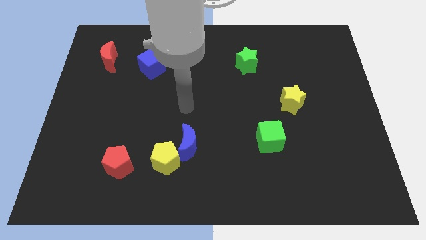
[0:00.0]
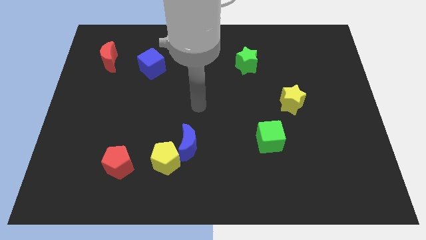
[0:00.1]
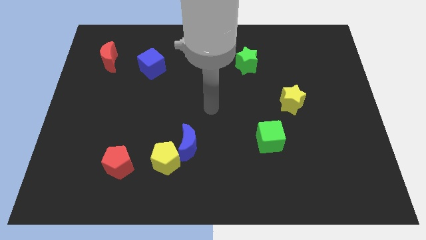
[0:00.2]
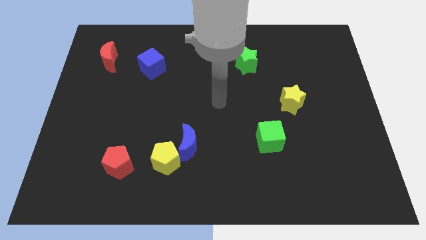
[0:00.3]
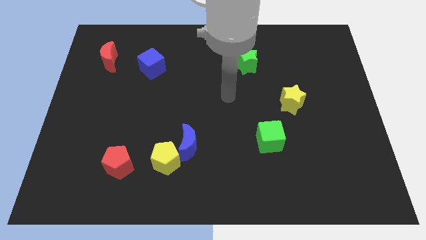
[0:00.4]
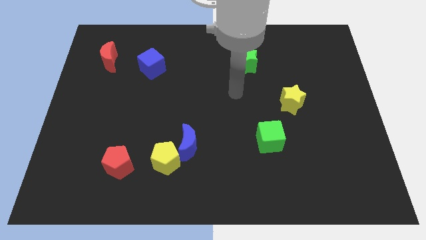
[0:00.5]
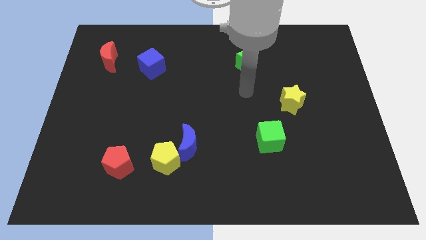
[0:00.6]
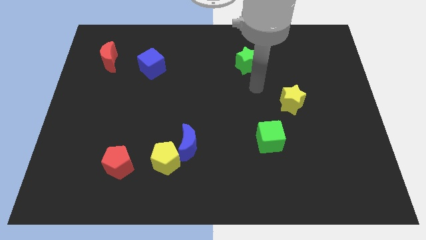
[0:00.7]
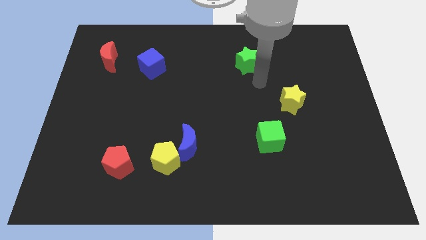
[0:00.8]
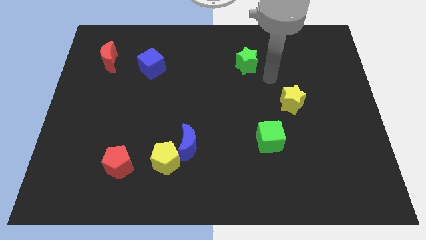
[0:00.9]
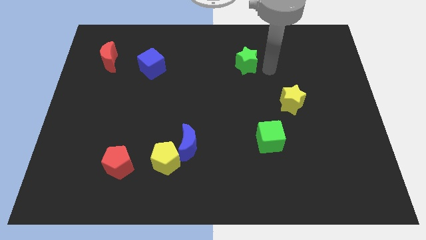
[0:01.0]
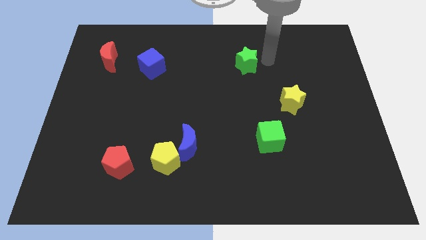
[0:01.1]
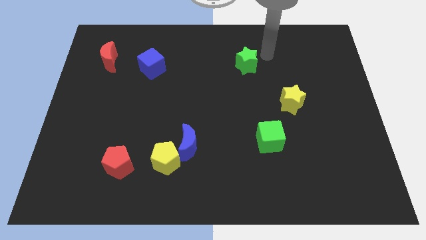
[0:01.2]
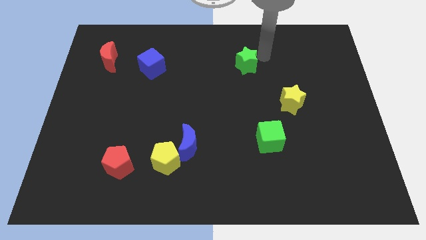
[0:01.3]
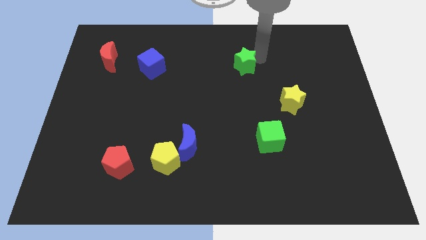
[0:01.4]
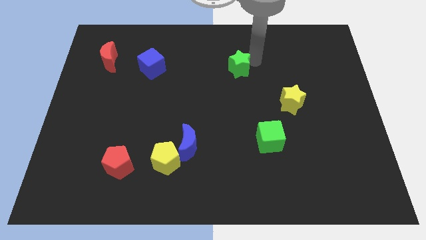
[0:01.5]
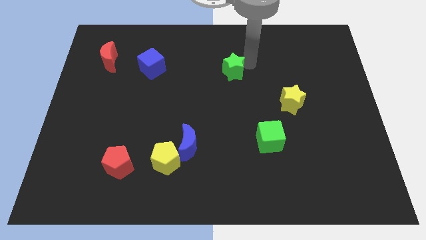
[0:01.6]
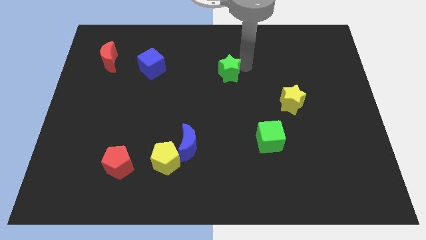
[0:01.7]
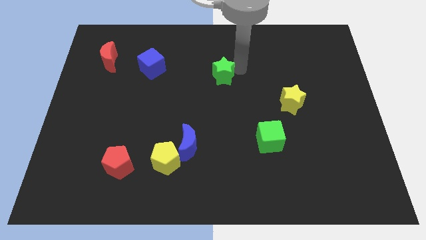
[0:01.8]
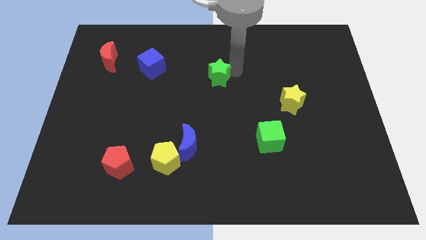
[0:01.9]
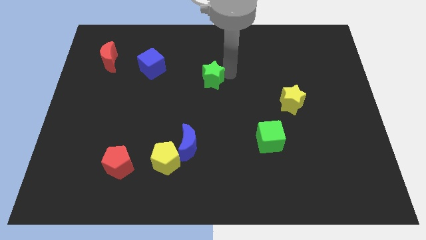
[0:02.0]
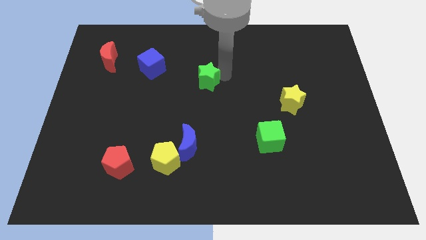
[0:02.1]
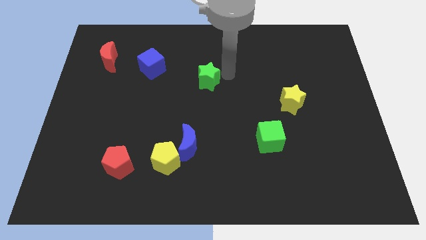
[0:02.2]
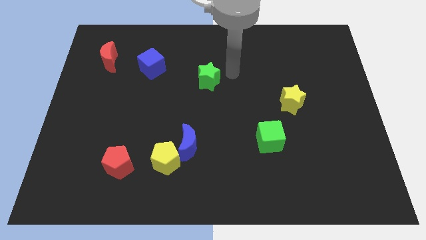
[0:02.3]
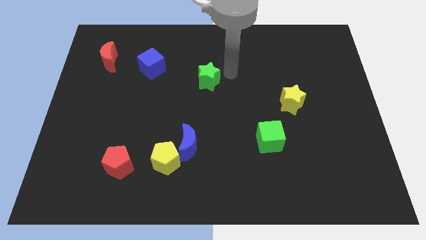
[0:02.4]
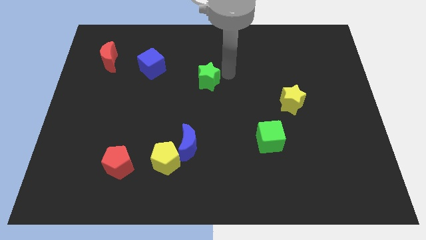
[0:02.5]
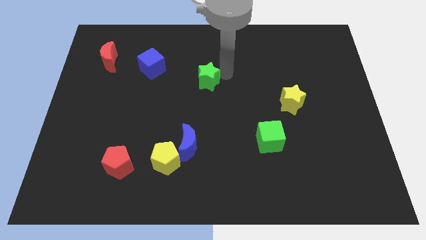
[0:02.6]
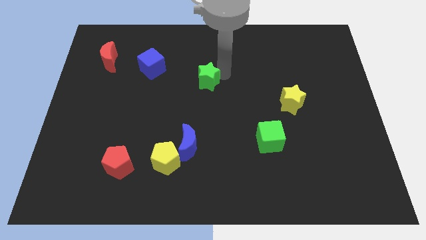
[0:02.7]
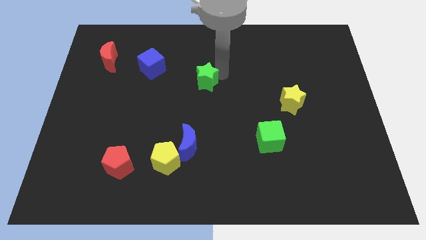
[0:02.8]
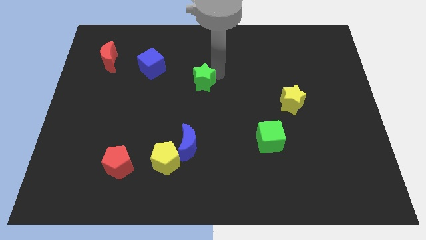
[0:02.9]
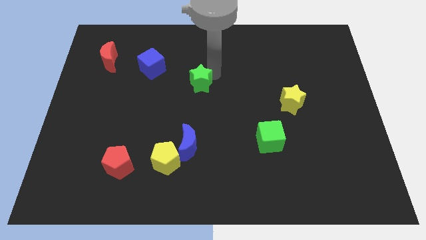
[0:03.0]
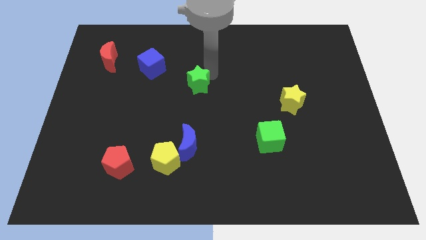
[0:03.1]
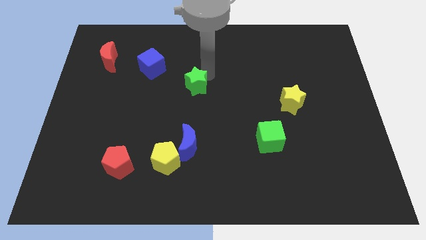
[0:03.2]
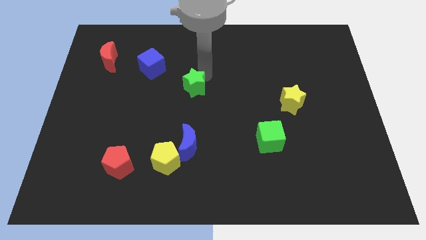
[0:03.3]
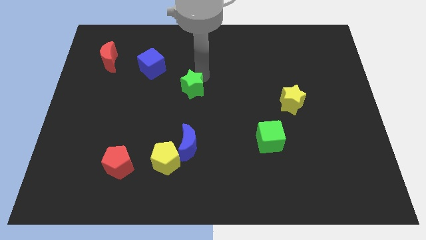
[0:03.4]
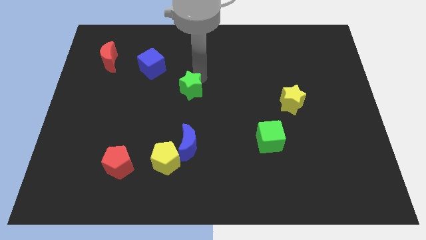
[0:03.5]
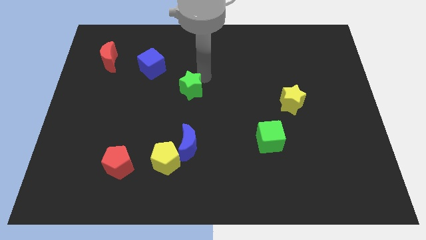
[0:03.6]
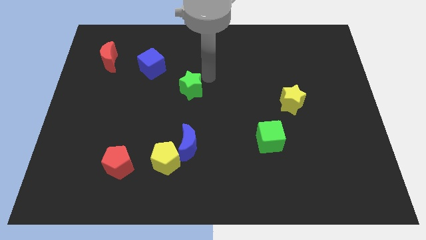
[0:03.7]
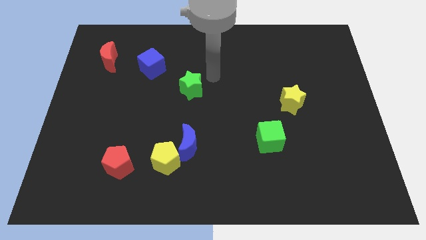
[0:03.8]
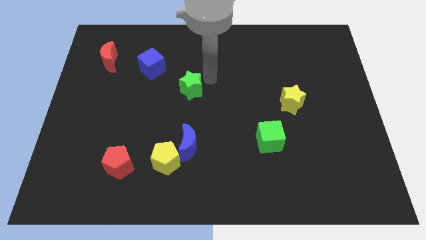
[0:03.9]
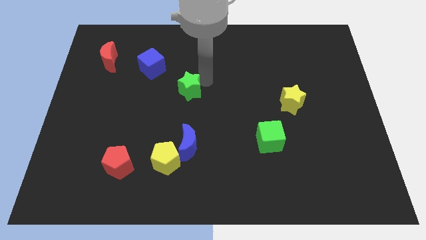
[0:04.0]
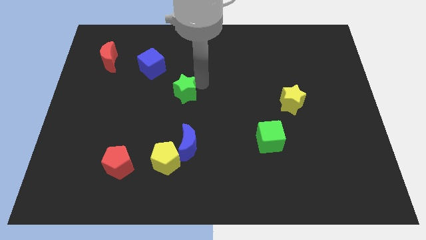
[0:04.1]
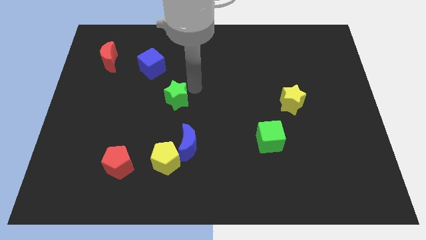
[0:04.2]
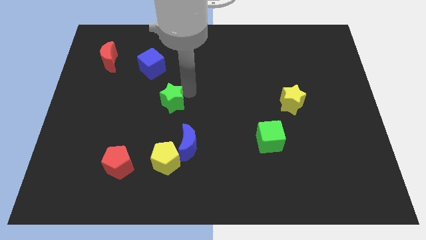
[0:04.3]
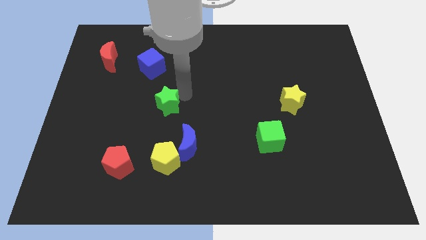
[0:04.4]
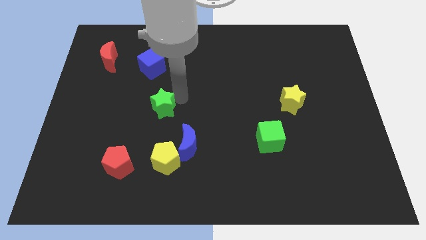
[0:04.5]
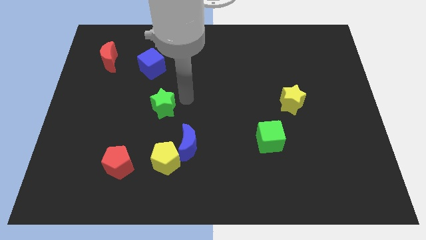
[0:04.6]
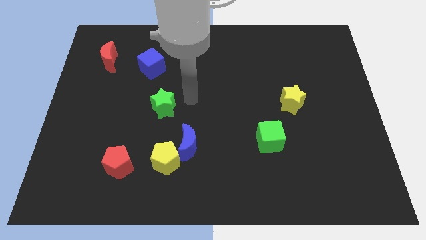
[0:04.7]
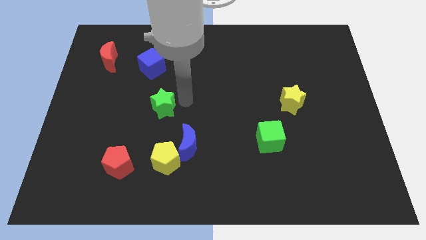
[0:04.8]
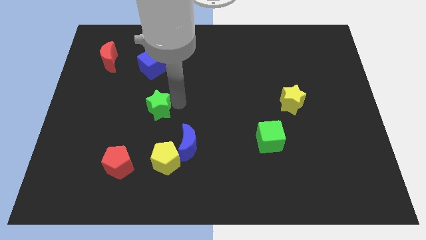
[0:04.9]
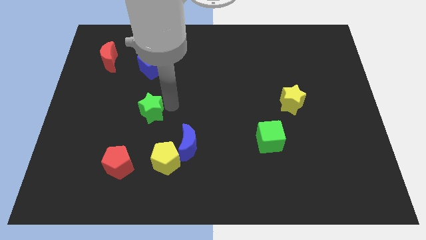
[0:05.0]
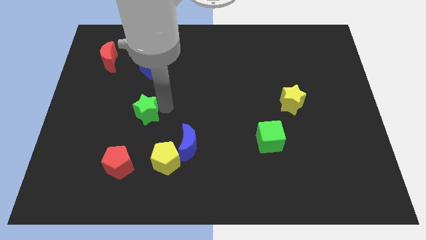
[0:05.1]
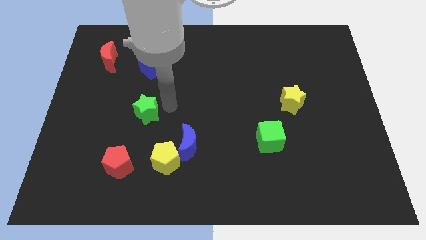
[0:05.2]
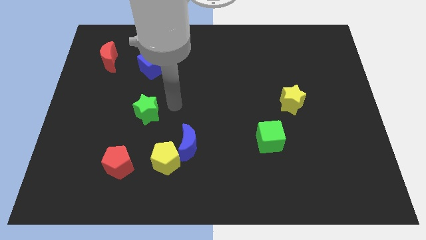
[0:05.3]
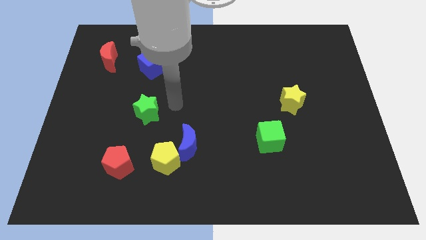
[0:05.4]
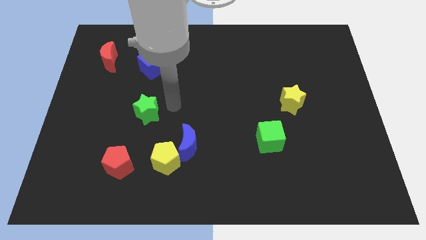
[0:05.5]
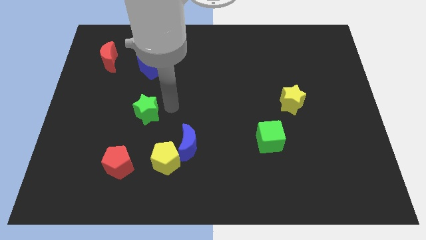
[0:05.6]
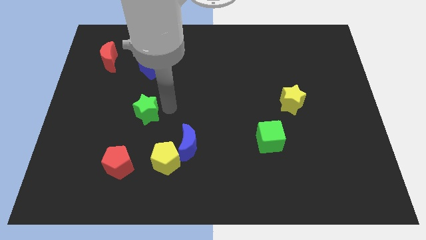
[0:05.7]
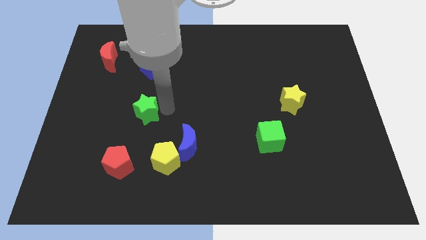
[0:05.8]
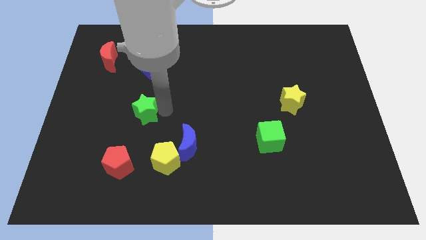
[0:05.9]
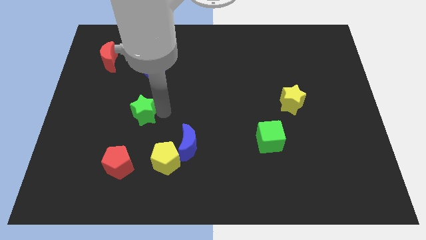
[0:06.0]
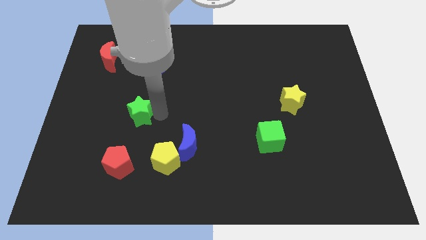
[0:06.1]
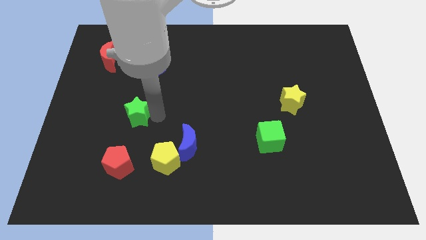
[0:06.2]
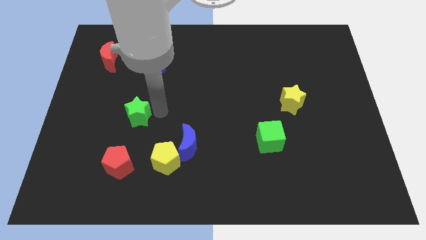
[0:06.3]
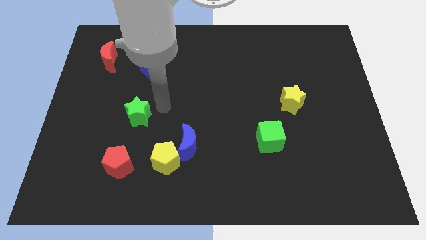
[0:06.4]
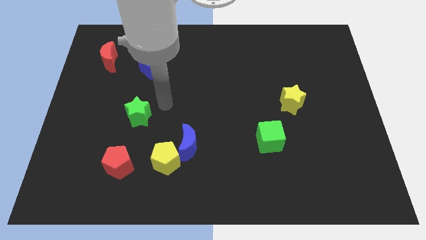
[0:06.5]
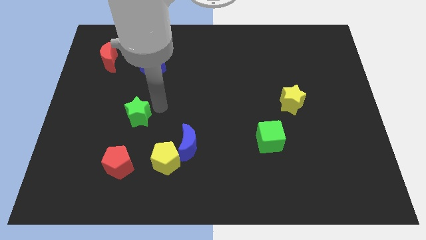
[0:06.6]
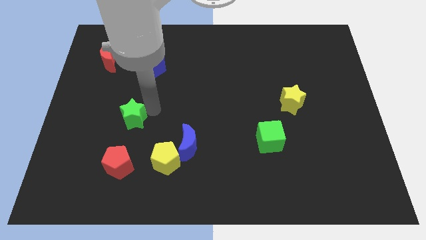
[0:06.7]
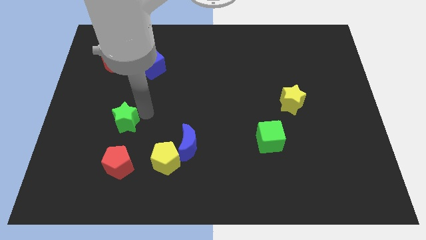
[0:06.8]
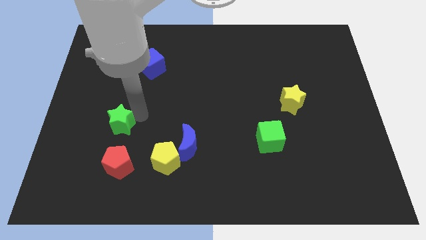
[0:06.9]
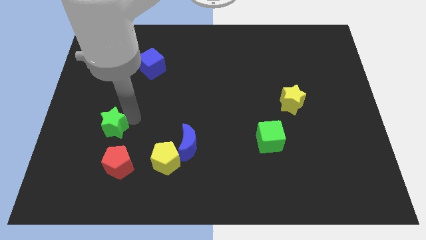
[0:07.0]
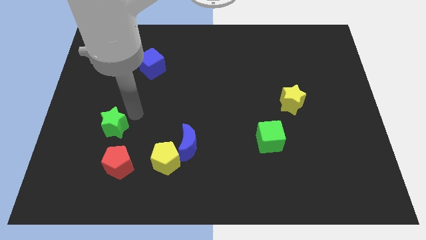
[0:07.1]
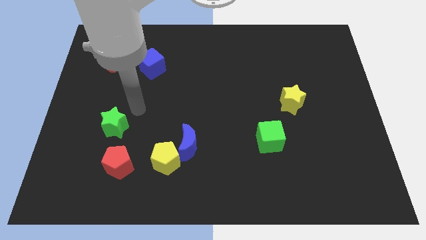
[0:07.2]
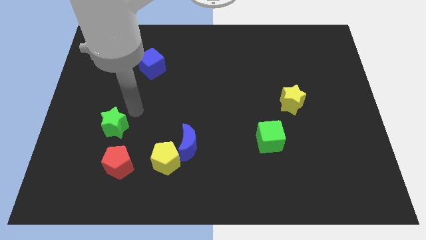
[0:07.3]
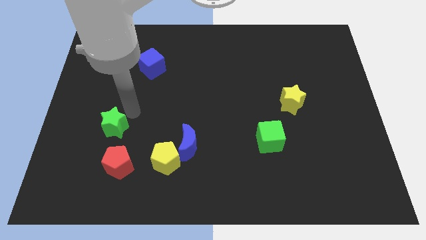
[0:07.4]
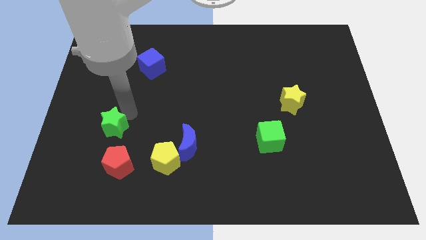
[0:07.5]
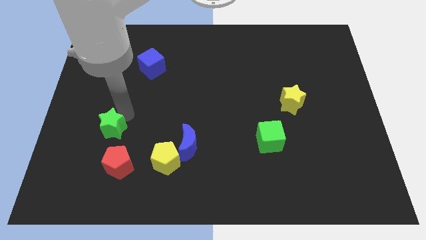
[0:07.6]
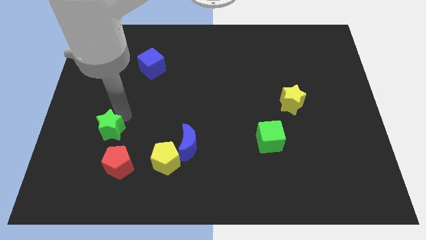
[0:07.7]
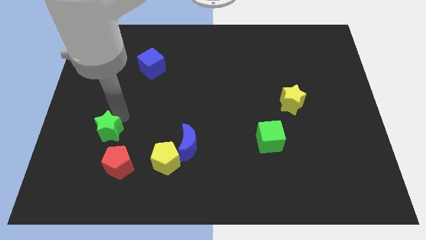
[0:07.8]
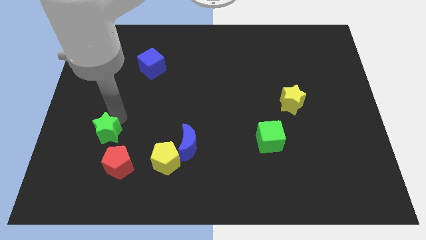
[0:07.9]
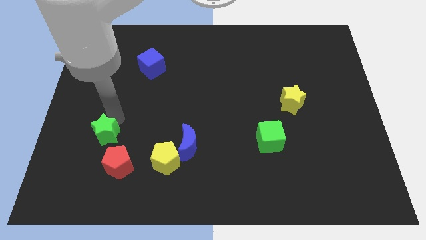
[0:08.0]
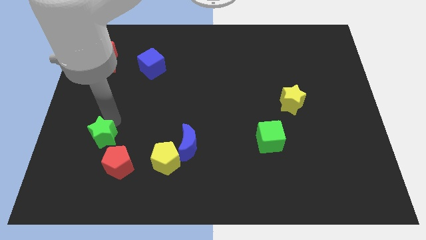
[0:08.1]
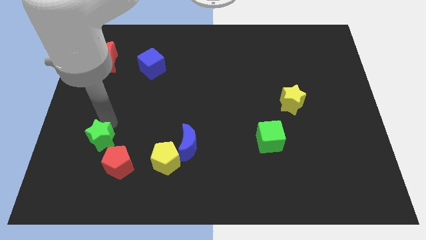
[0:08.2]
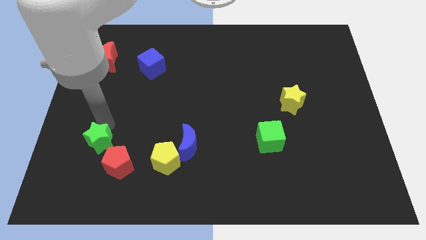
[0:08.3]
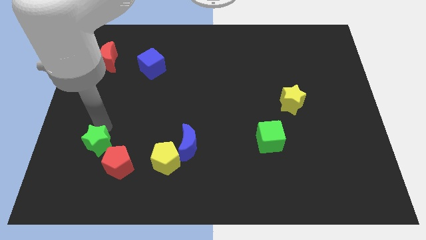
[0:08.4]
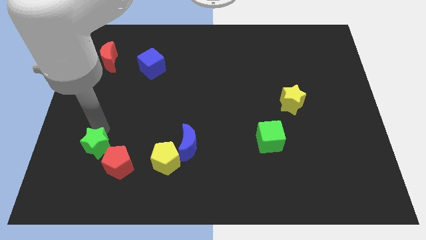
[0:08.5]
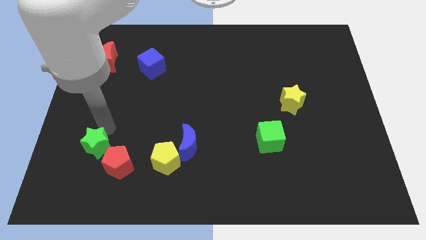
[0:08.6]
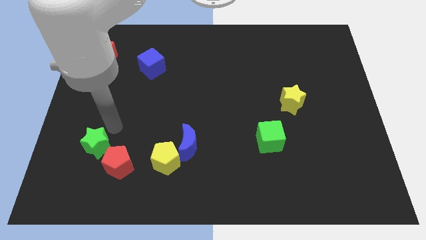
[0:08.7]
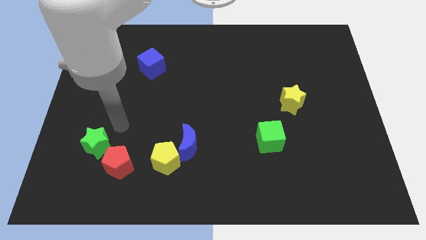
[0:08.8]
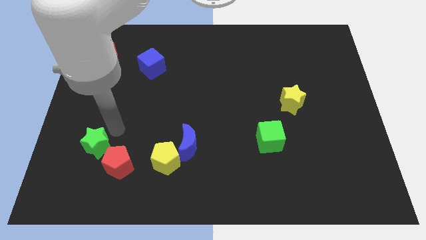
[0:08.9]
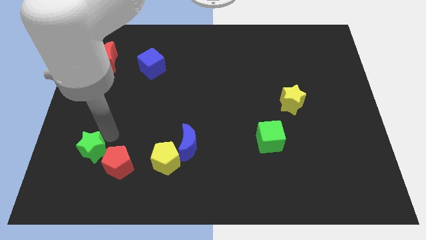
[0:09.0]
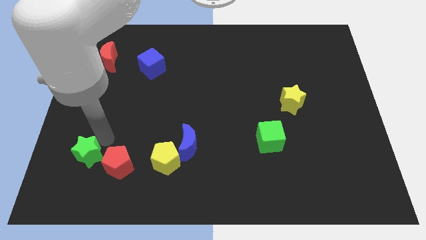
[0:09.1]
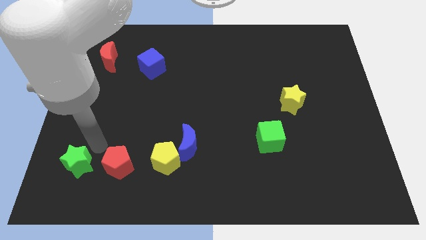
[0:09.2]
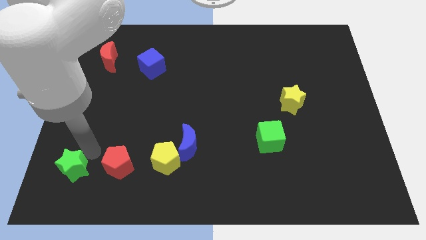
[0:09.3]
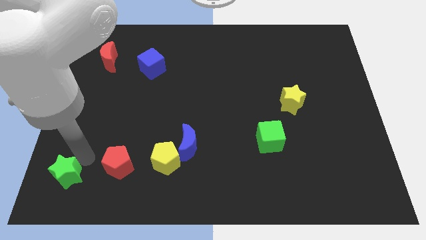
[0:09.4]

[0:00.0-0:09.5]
put the green star to the bottom left corner
